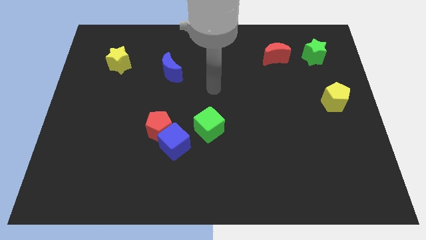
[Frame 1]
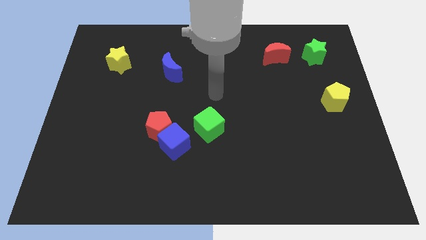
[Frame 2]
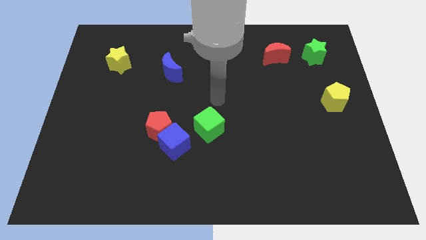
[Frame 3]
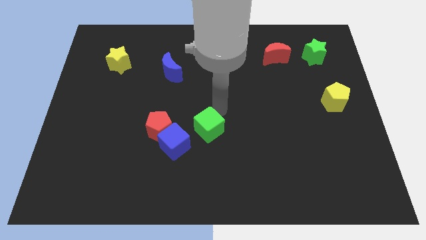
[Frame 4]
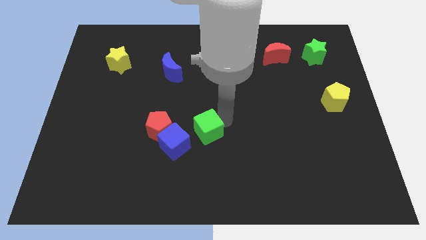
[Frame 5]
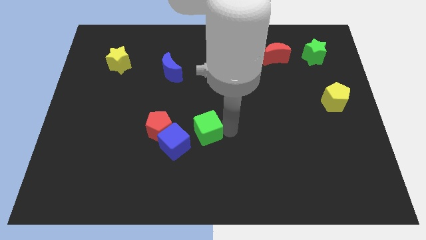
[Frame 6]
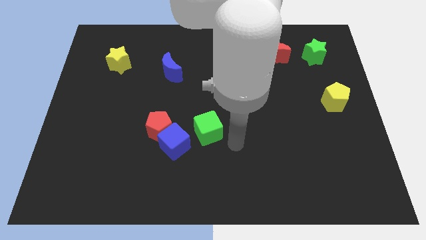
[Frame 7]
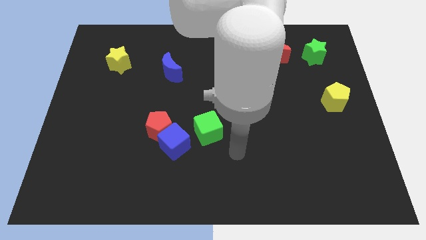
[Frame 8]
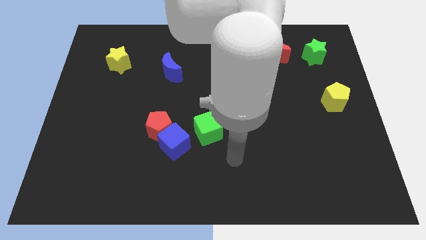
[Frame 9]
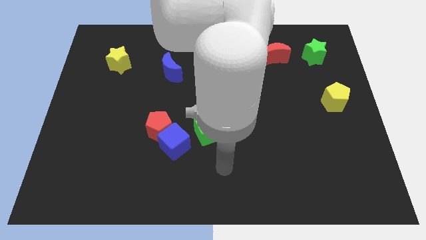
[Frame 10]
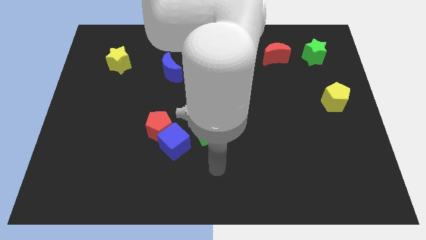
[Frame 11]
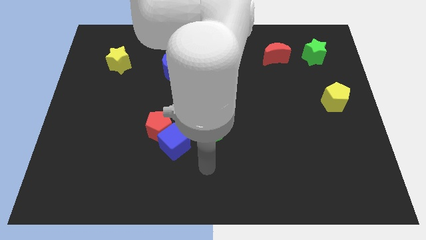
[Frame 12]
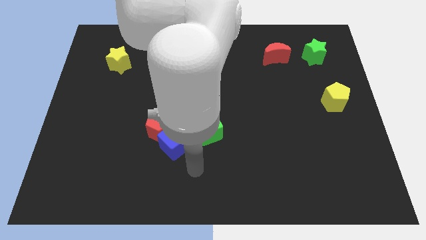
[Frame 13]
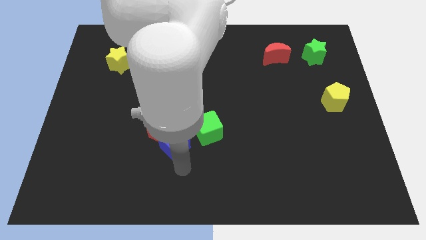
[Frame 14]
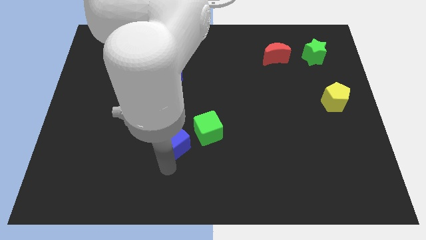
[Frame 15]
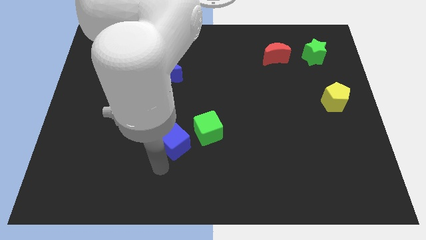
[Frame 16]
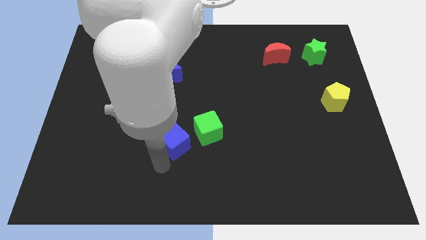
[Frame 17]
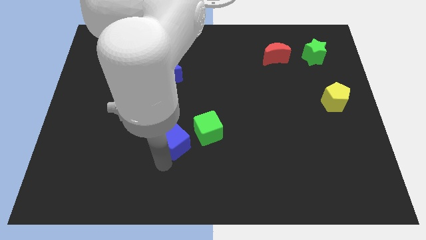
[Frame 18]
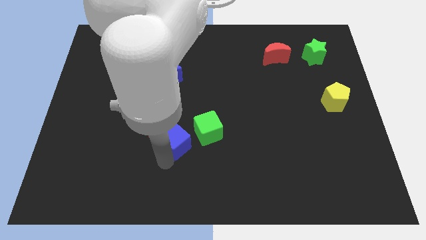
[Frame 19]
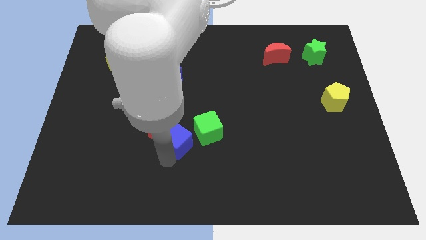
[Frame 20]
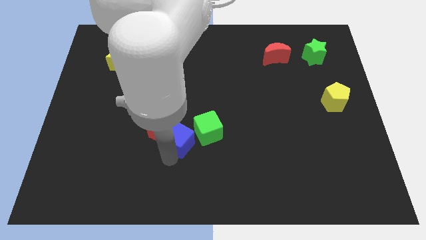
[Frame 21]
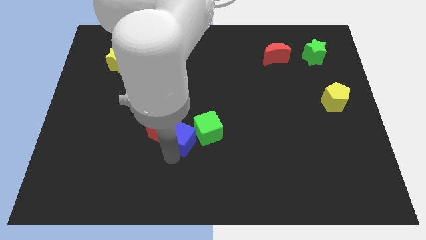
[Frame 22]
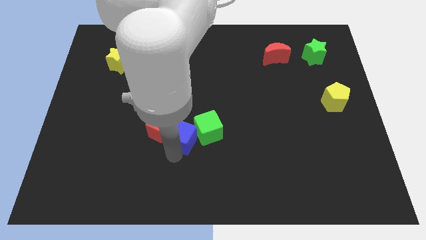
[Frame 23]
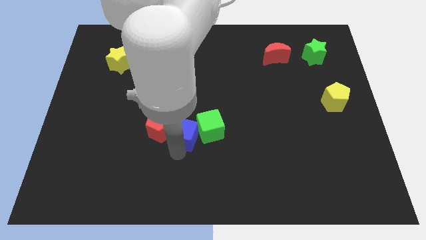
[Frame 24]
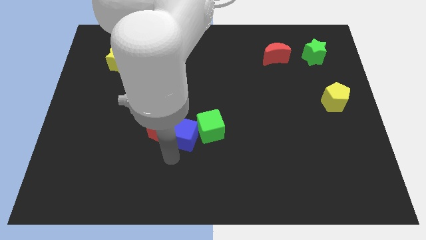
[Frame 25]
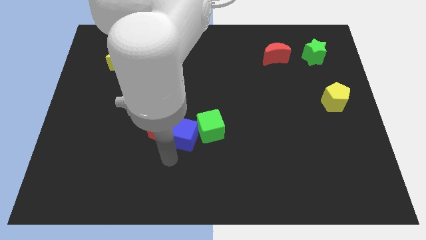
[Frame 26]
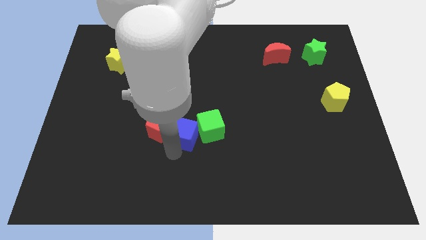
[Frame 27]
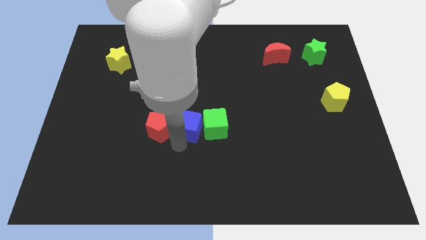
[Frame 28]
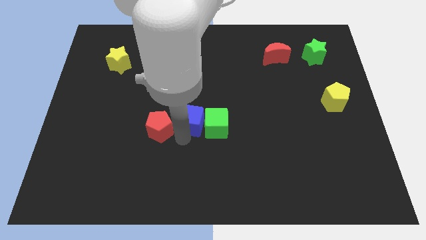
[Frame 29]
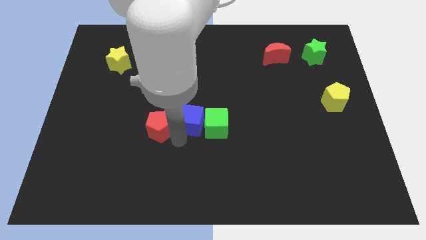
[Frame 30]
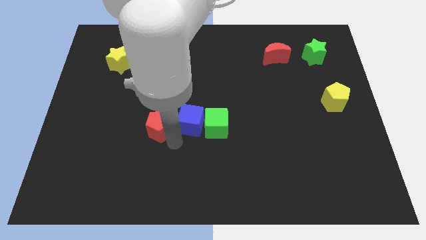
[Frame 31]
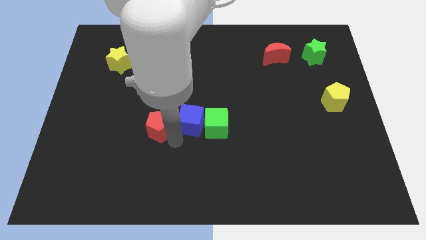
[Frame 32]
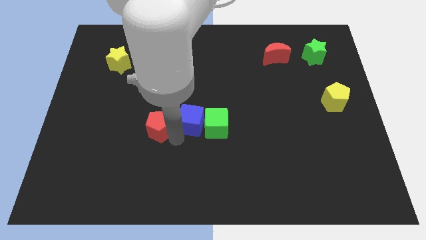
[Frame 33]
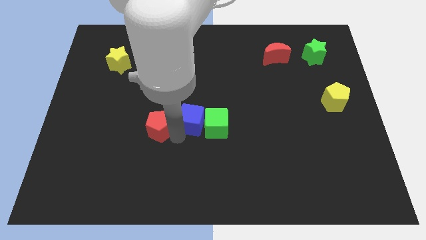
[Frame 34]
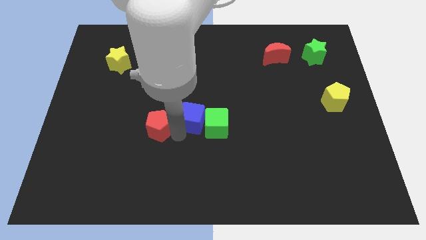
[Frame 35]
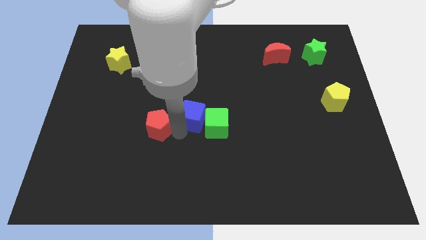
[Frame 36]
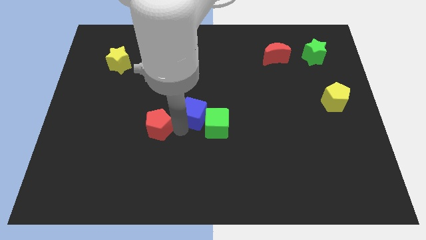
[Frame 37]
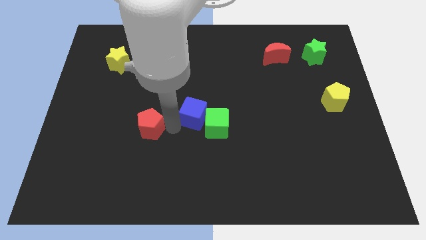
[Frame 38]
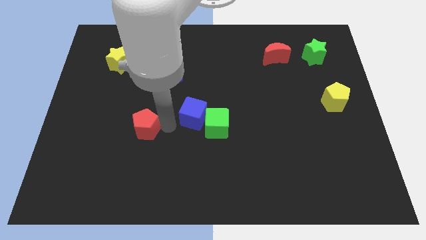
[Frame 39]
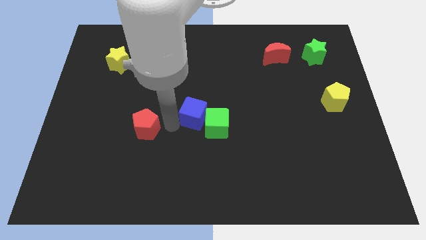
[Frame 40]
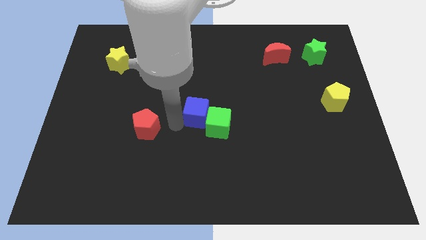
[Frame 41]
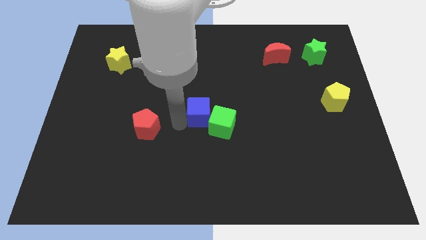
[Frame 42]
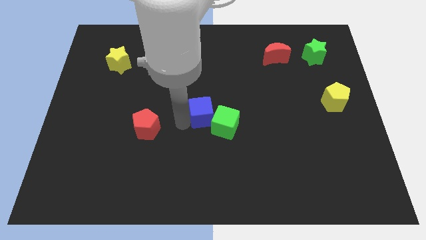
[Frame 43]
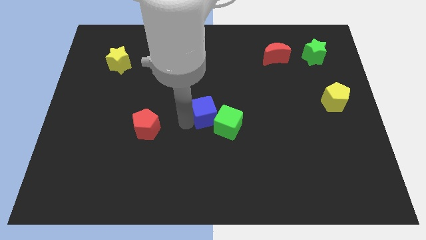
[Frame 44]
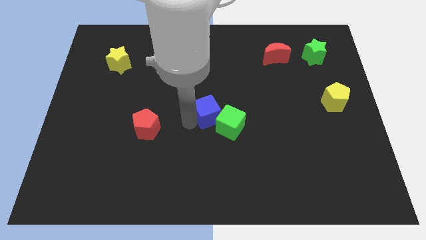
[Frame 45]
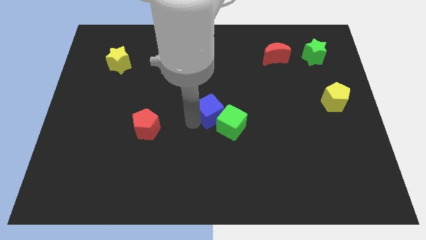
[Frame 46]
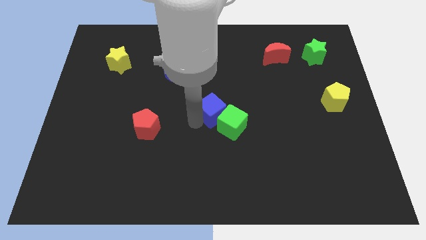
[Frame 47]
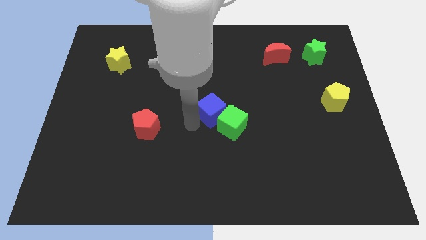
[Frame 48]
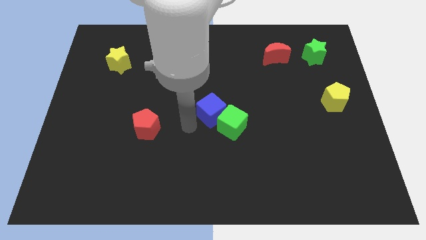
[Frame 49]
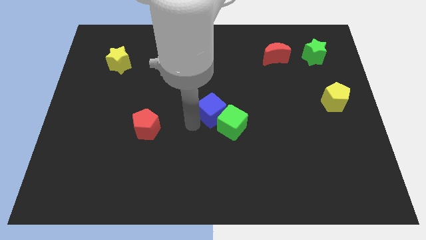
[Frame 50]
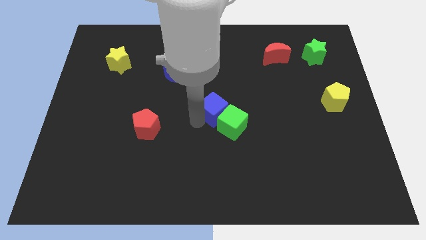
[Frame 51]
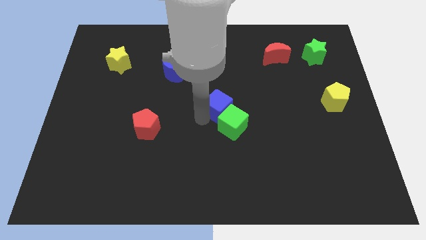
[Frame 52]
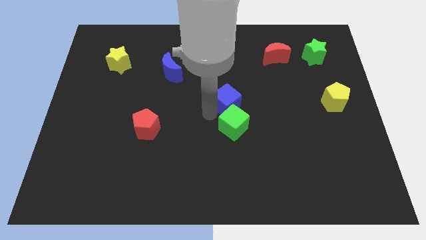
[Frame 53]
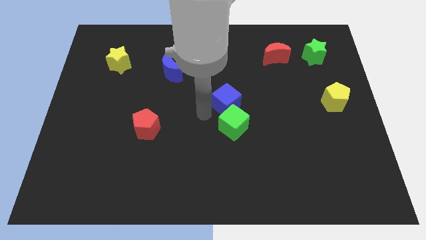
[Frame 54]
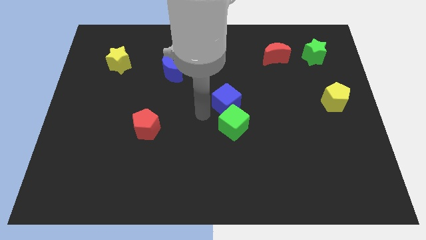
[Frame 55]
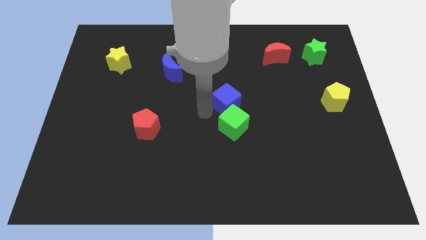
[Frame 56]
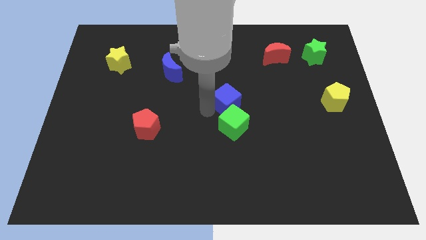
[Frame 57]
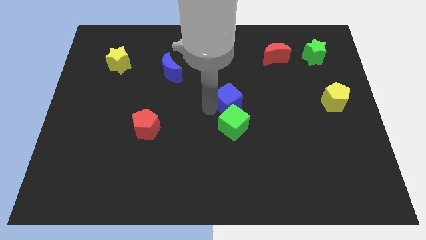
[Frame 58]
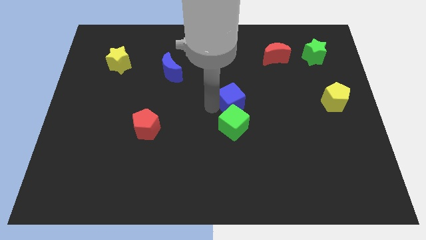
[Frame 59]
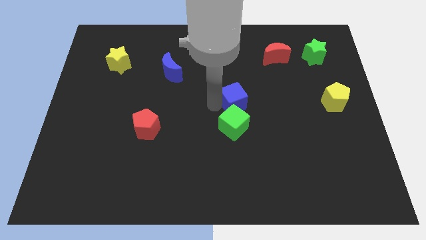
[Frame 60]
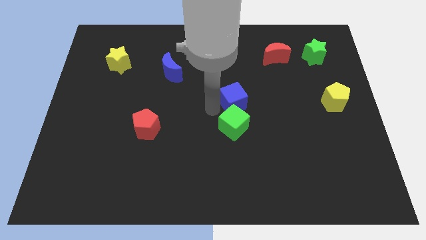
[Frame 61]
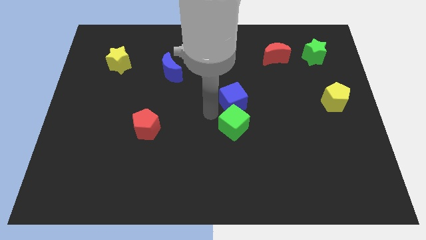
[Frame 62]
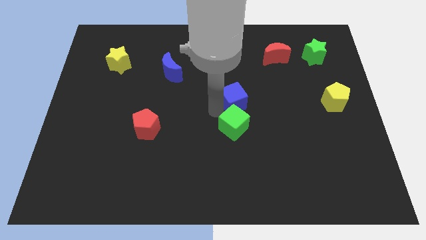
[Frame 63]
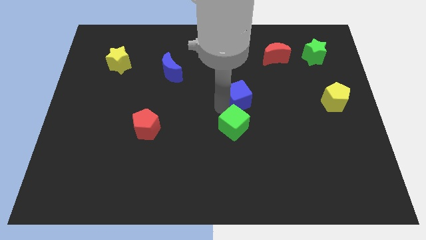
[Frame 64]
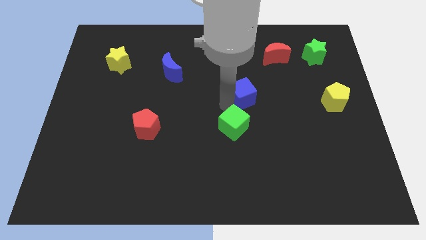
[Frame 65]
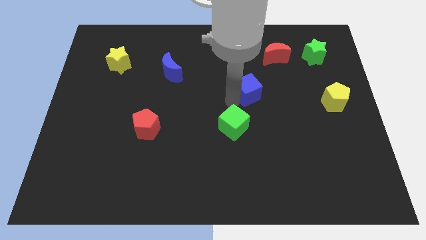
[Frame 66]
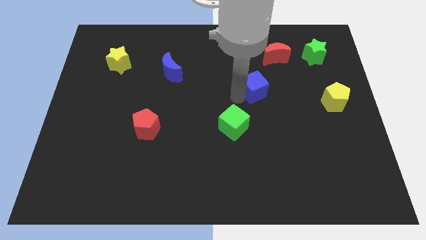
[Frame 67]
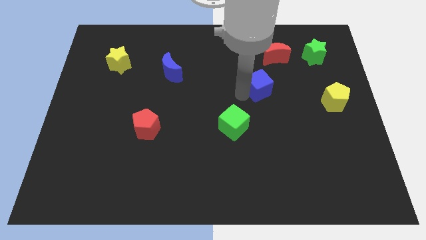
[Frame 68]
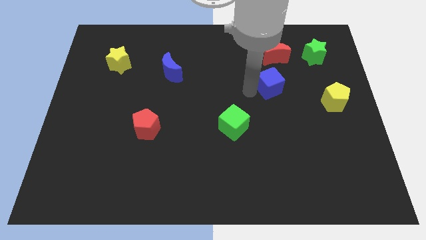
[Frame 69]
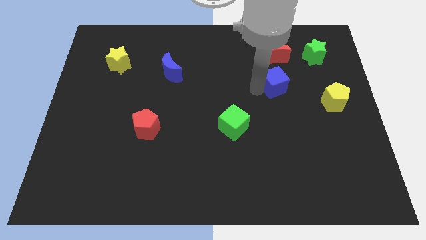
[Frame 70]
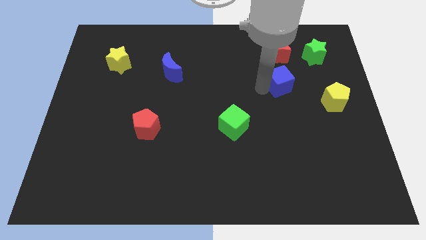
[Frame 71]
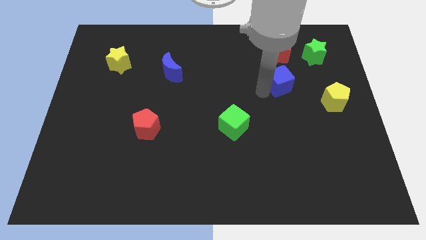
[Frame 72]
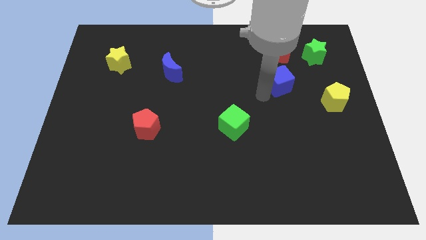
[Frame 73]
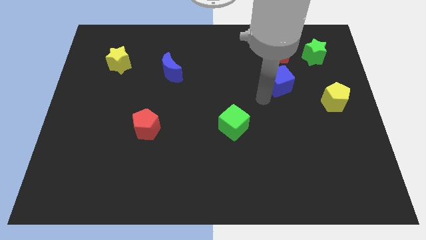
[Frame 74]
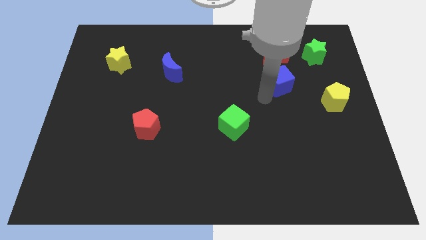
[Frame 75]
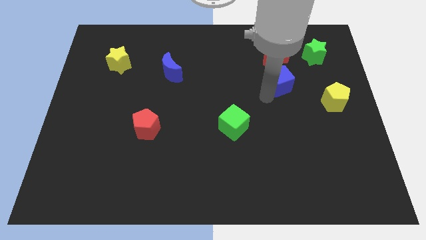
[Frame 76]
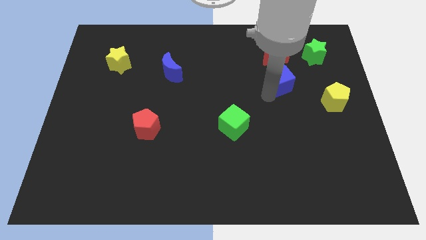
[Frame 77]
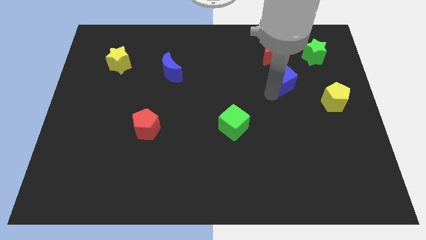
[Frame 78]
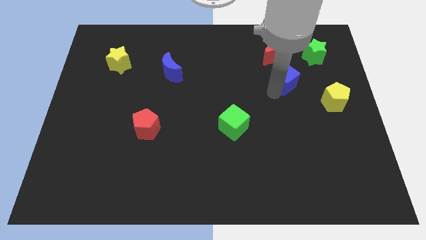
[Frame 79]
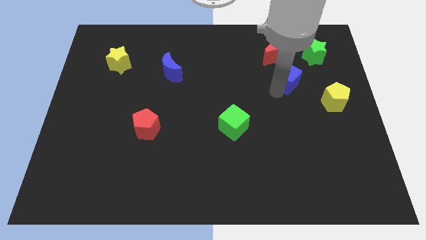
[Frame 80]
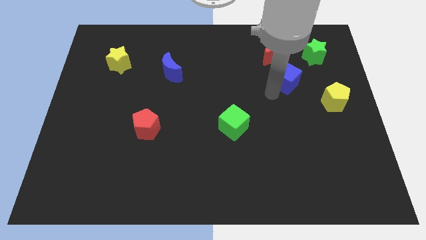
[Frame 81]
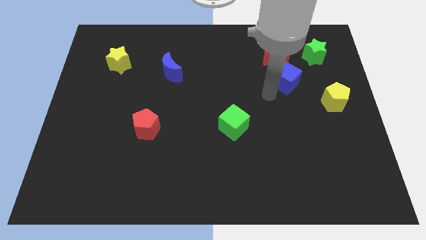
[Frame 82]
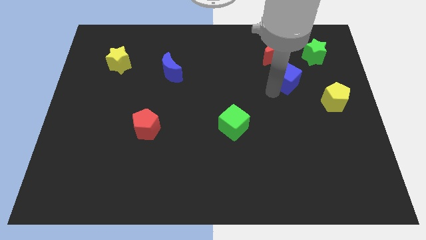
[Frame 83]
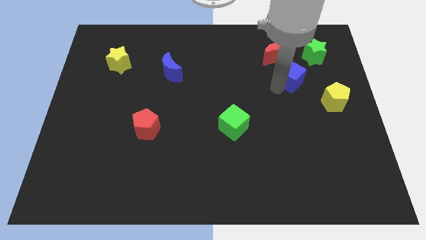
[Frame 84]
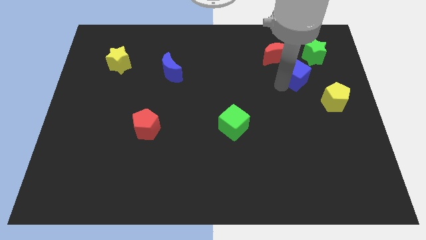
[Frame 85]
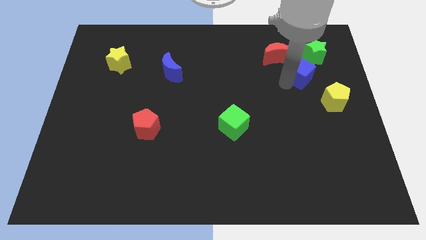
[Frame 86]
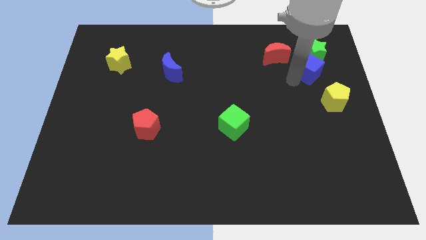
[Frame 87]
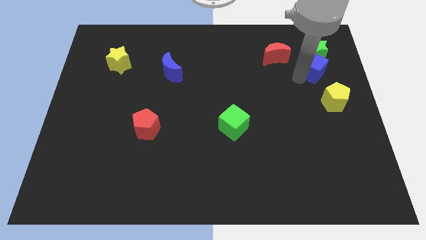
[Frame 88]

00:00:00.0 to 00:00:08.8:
put the blue cube close to the green star
